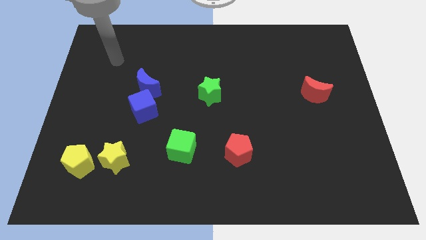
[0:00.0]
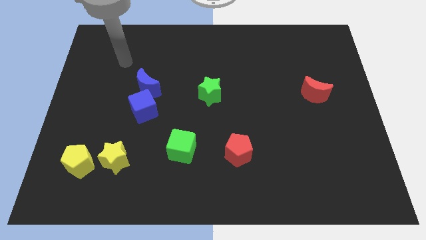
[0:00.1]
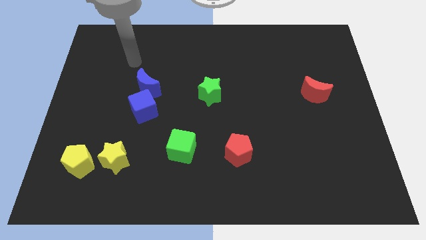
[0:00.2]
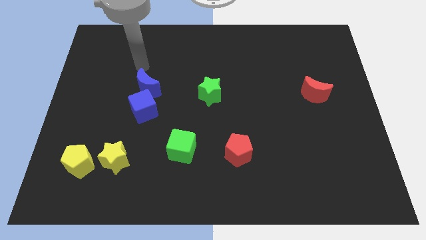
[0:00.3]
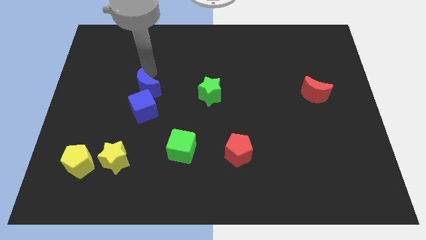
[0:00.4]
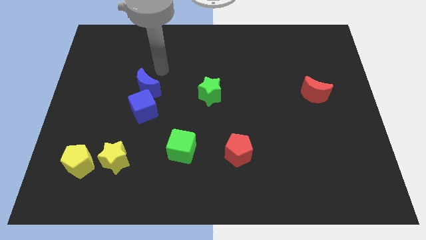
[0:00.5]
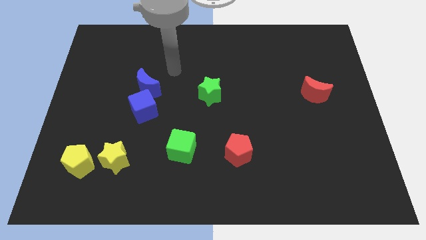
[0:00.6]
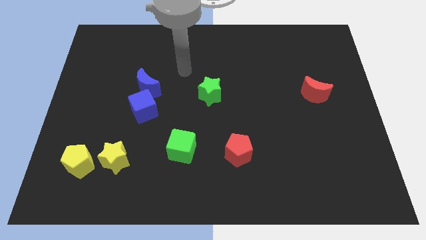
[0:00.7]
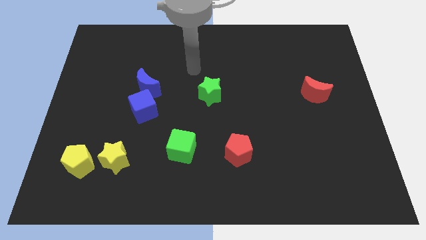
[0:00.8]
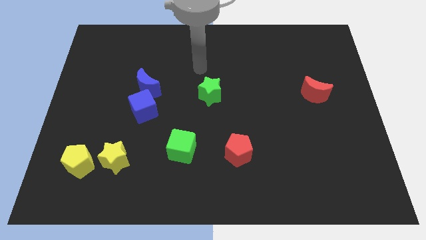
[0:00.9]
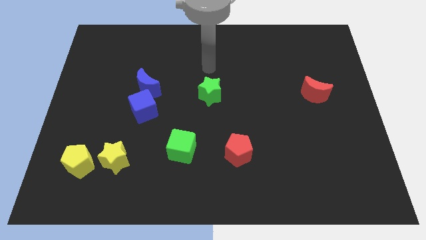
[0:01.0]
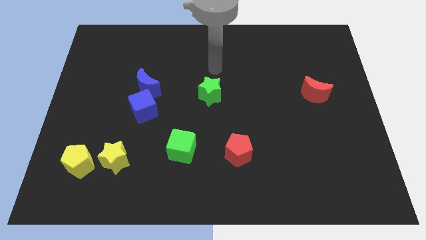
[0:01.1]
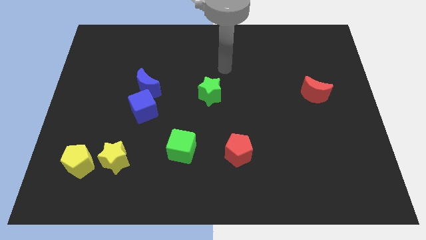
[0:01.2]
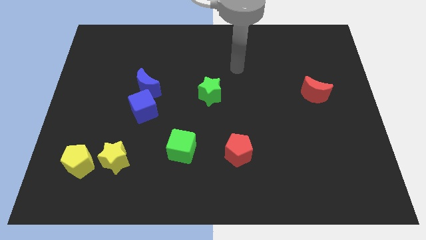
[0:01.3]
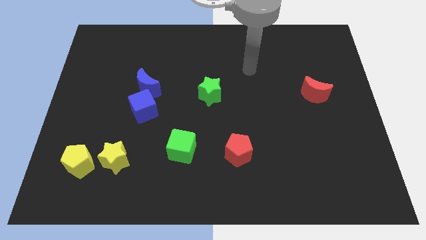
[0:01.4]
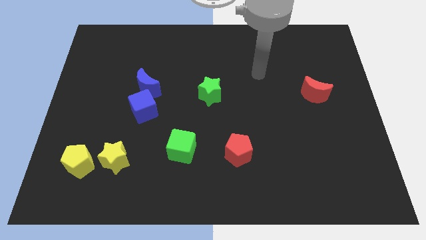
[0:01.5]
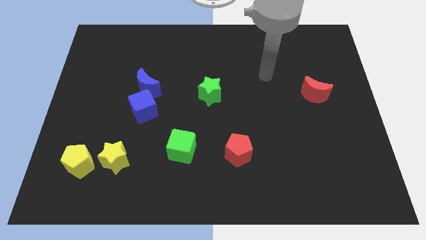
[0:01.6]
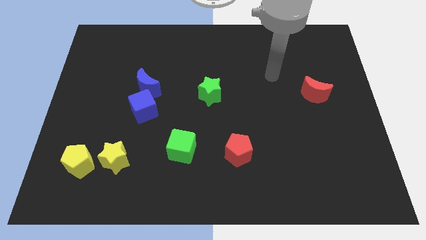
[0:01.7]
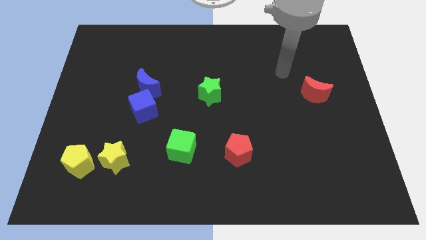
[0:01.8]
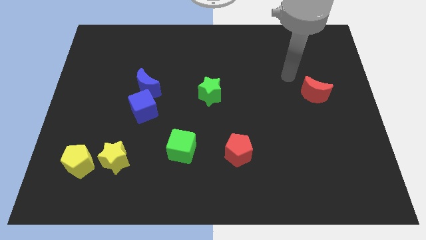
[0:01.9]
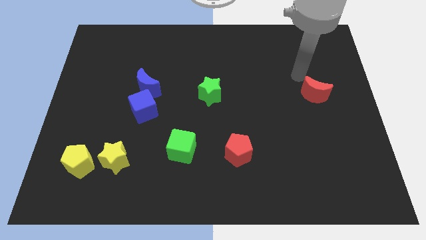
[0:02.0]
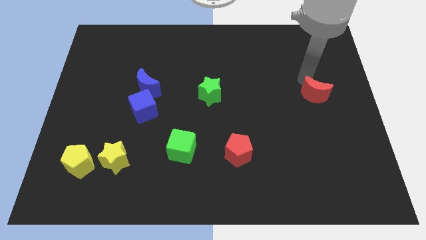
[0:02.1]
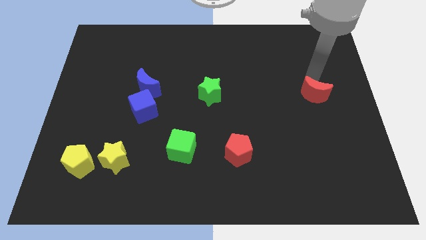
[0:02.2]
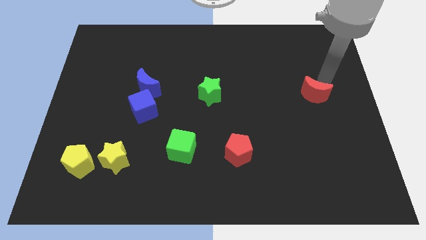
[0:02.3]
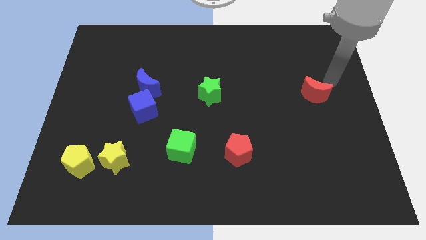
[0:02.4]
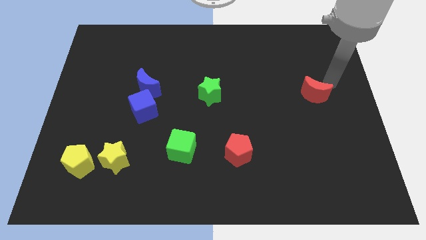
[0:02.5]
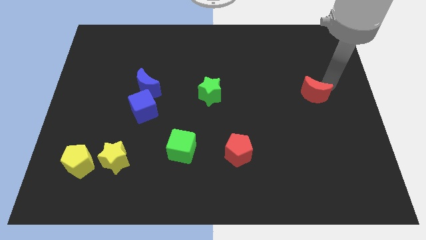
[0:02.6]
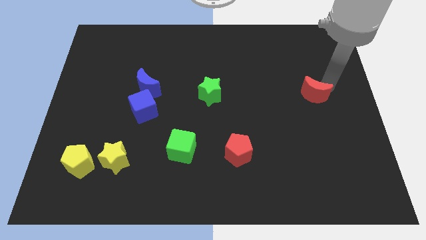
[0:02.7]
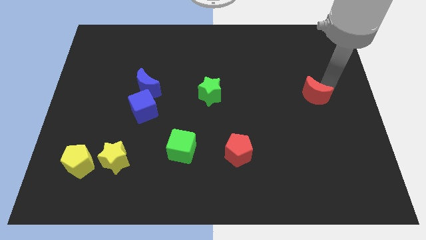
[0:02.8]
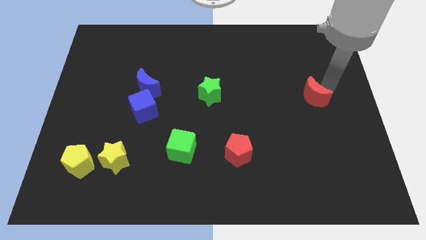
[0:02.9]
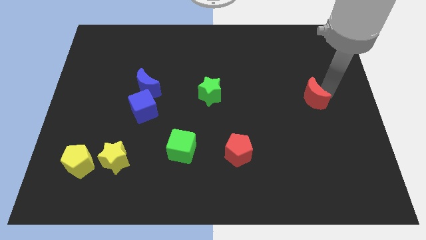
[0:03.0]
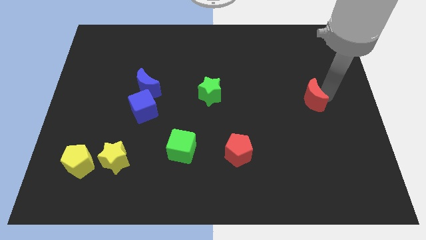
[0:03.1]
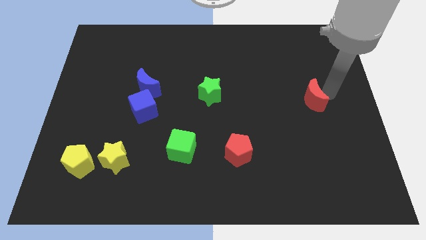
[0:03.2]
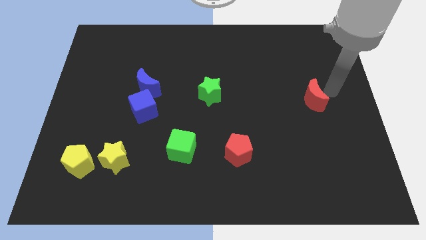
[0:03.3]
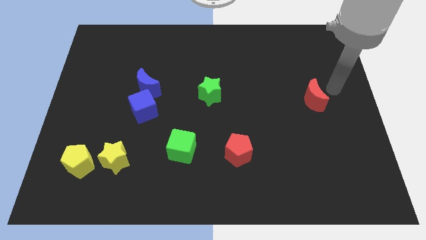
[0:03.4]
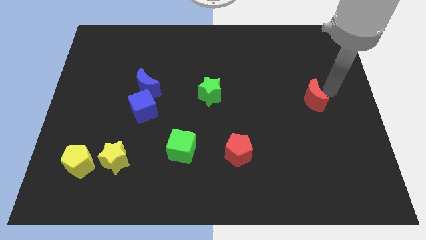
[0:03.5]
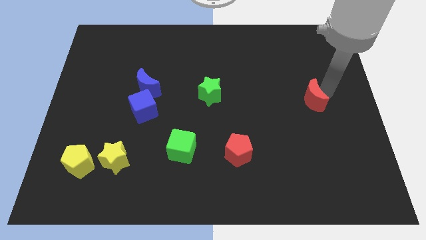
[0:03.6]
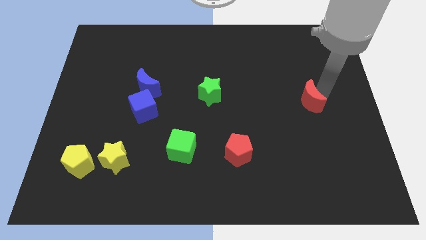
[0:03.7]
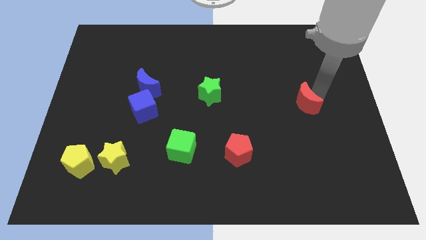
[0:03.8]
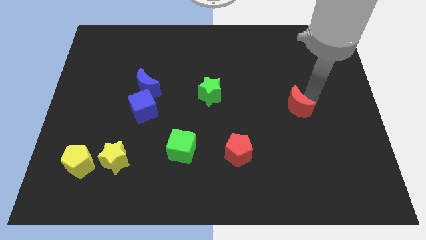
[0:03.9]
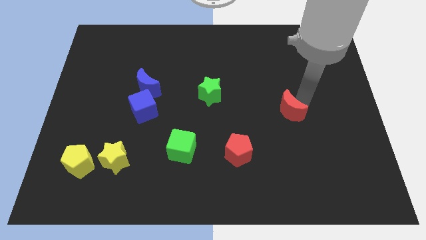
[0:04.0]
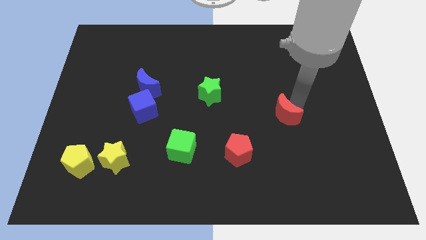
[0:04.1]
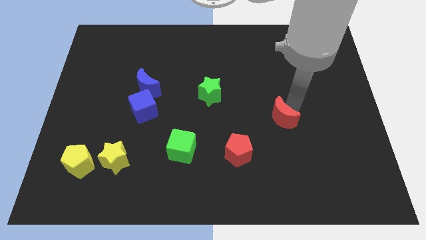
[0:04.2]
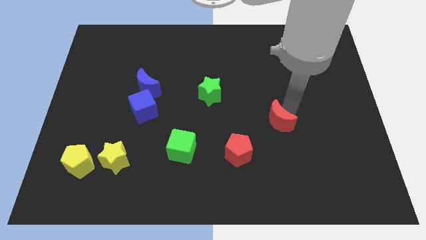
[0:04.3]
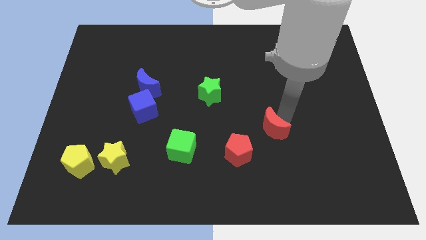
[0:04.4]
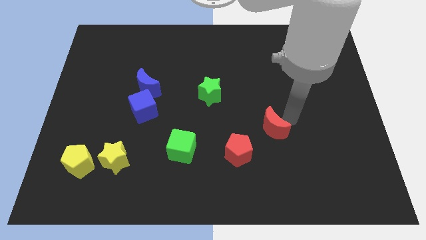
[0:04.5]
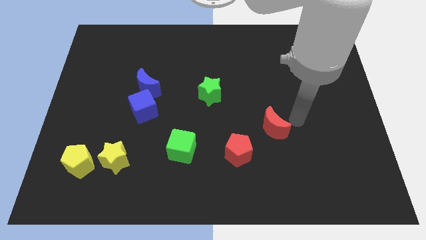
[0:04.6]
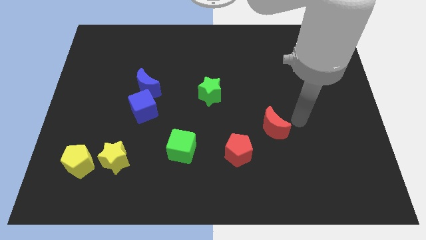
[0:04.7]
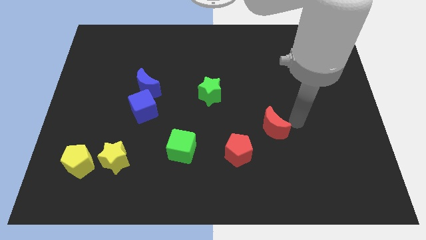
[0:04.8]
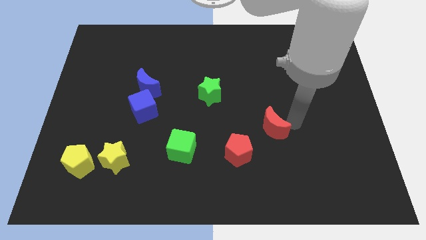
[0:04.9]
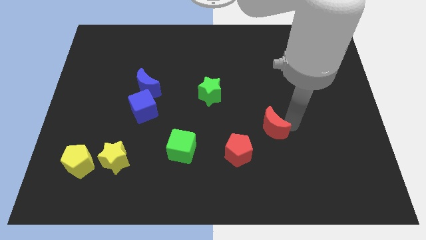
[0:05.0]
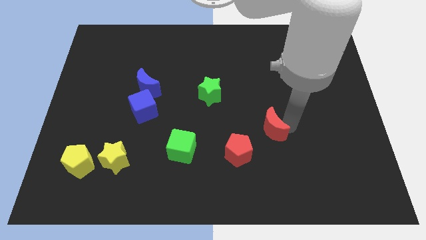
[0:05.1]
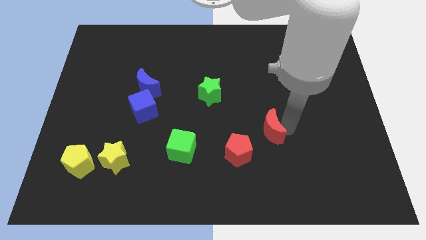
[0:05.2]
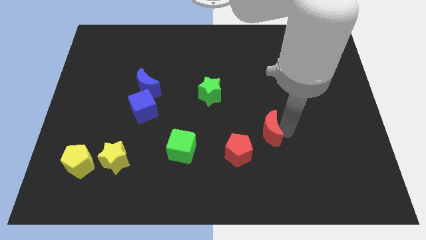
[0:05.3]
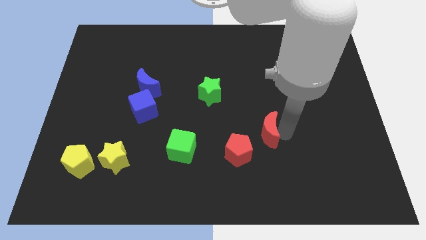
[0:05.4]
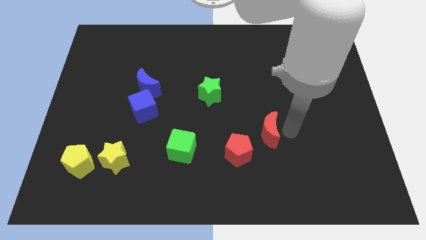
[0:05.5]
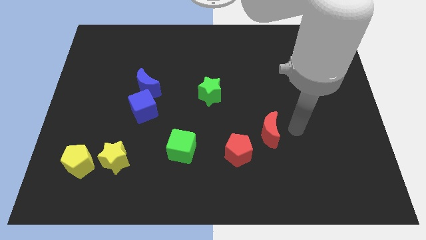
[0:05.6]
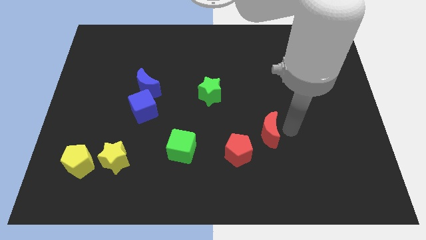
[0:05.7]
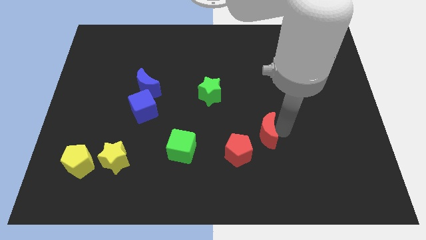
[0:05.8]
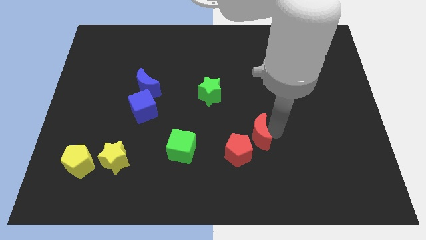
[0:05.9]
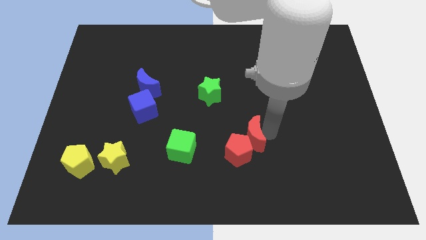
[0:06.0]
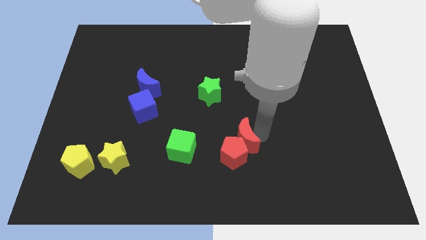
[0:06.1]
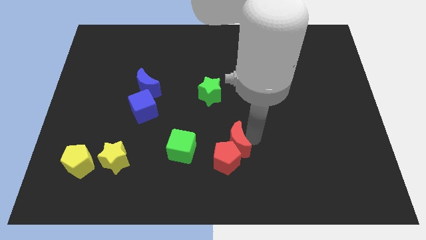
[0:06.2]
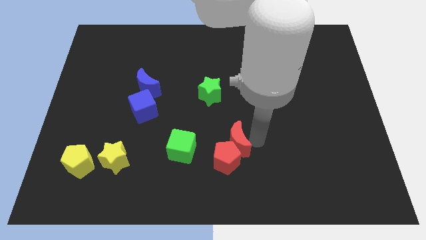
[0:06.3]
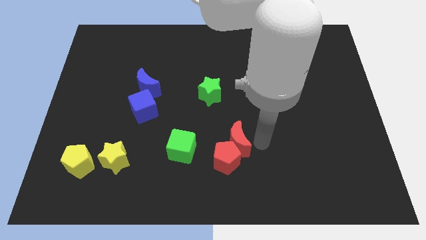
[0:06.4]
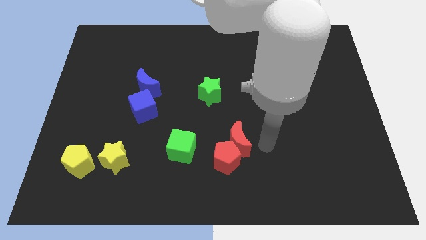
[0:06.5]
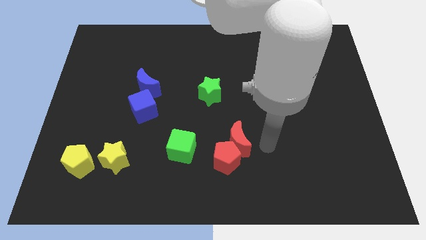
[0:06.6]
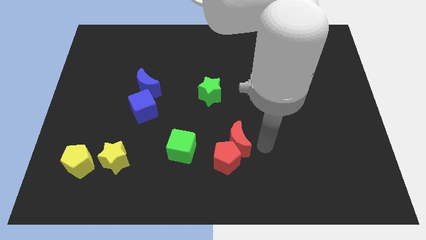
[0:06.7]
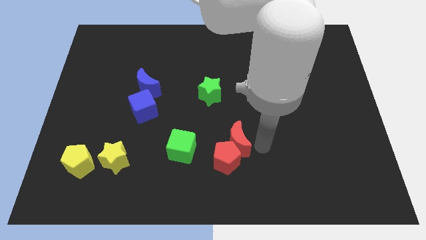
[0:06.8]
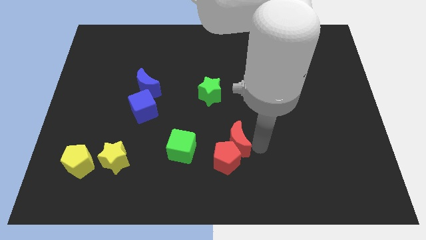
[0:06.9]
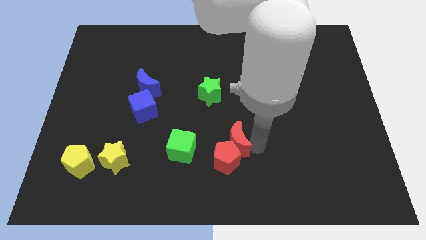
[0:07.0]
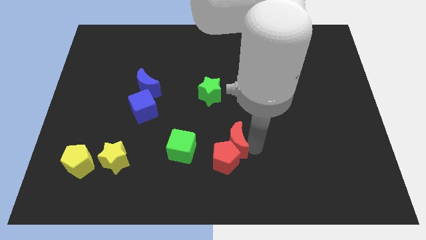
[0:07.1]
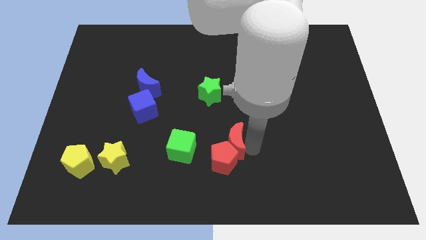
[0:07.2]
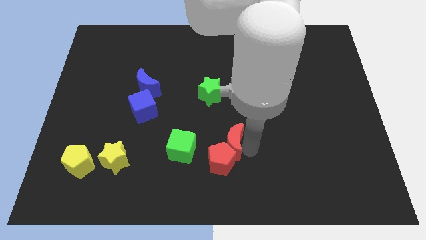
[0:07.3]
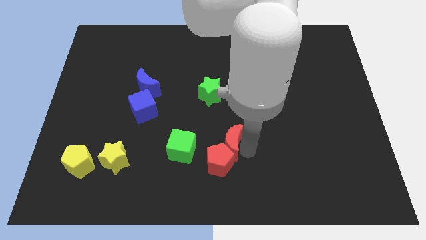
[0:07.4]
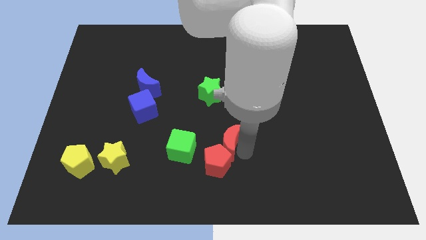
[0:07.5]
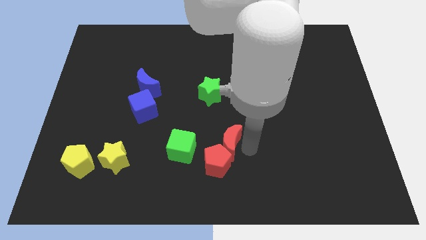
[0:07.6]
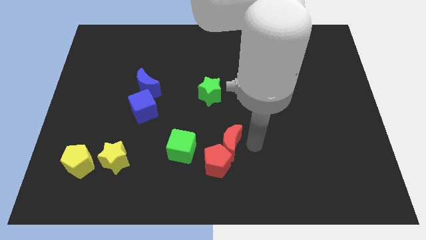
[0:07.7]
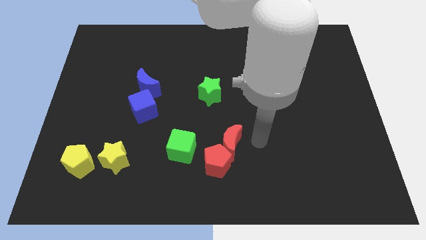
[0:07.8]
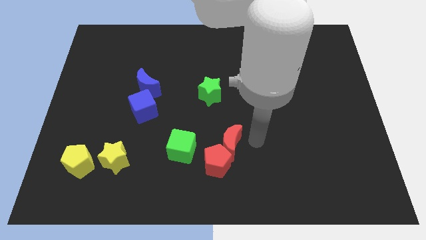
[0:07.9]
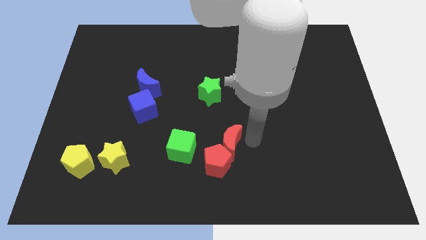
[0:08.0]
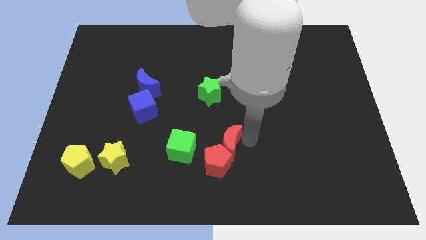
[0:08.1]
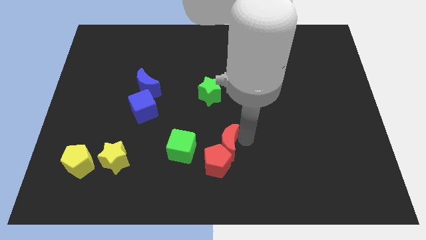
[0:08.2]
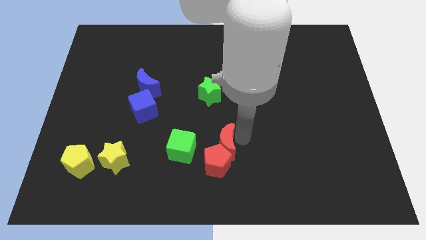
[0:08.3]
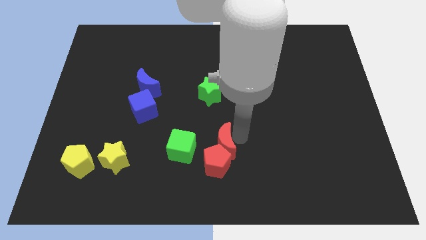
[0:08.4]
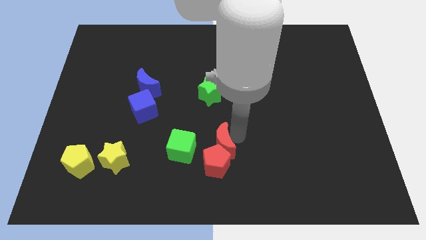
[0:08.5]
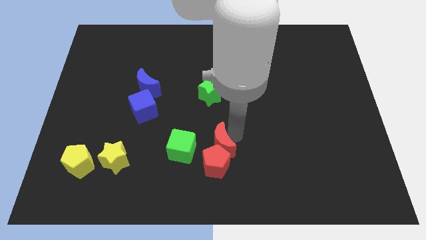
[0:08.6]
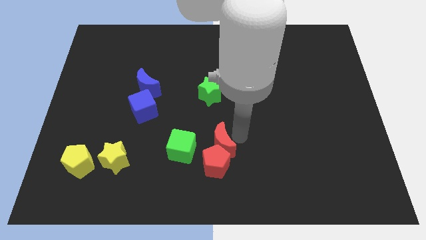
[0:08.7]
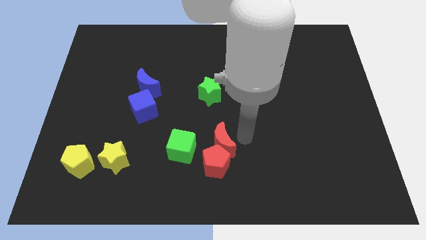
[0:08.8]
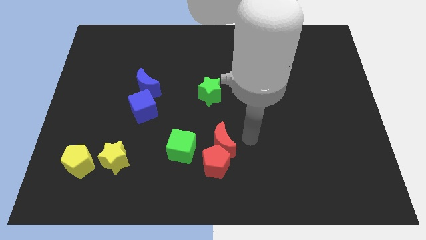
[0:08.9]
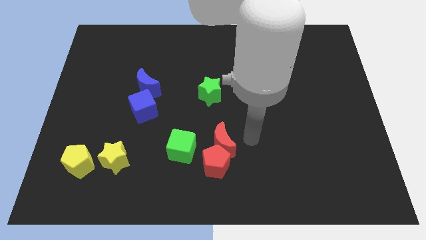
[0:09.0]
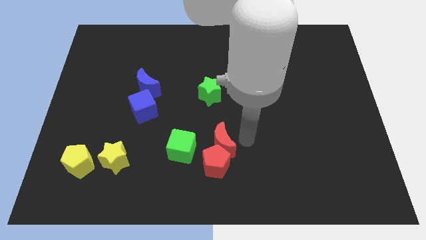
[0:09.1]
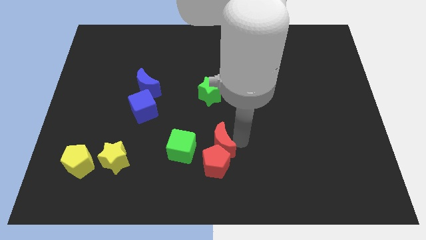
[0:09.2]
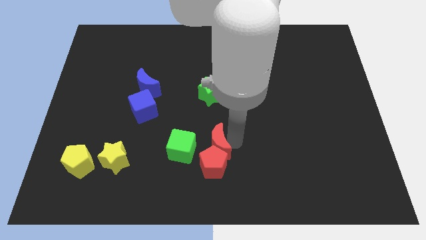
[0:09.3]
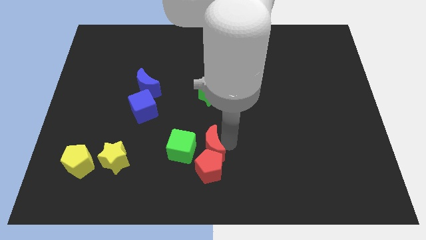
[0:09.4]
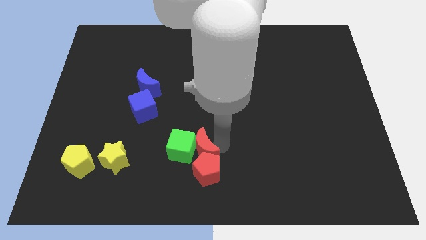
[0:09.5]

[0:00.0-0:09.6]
move the red moon towards the green cube
